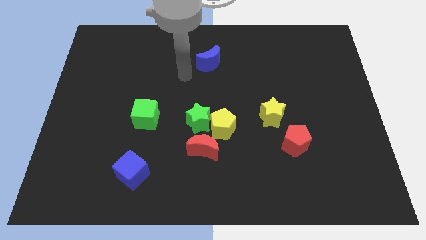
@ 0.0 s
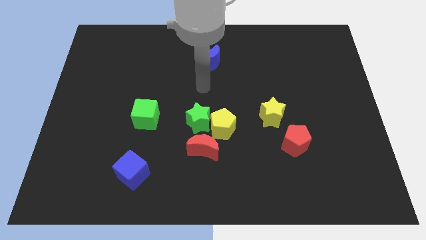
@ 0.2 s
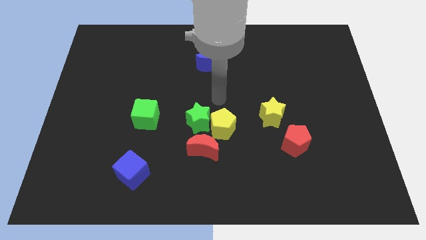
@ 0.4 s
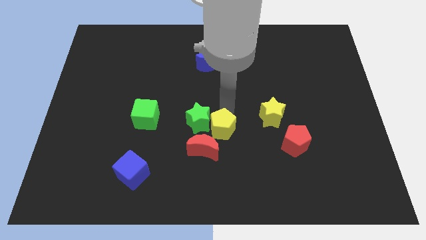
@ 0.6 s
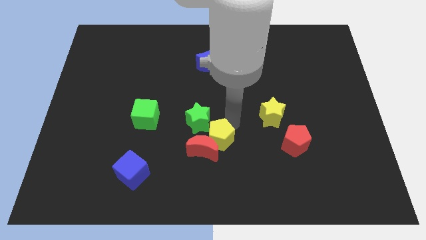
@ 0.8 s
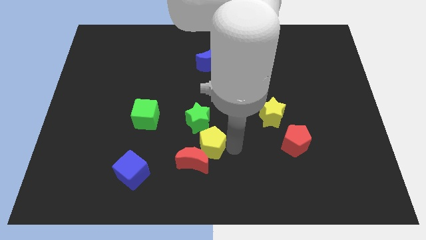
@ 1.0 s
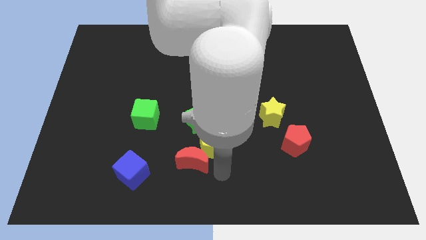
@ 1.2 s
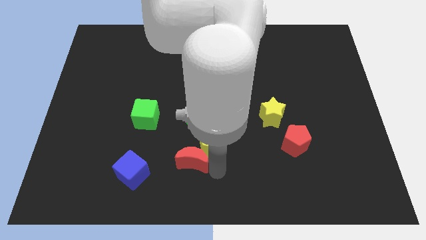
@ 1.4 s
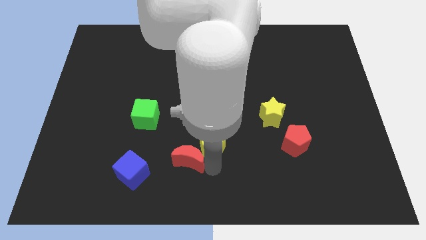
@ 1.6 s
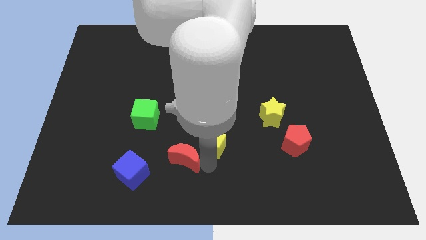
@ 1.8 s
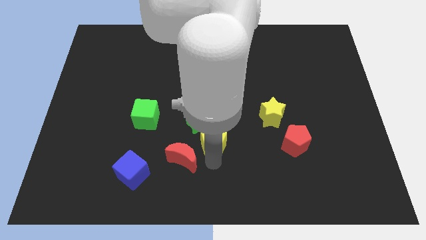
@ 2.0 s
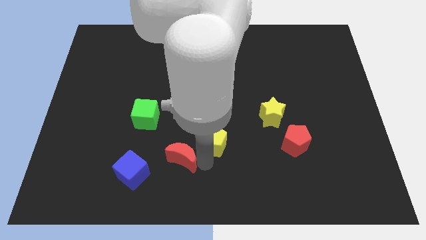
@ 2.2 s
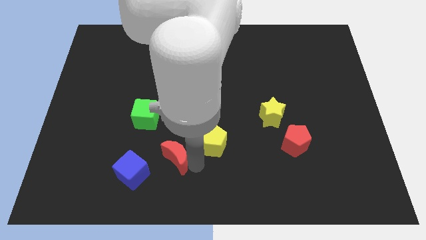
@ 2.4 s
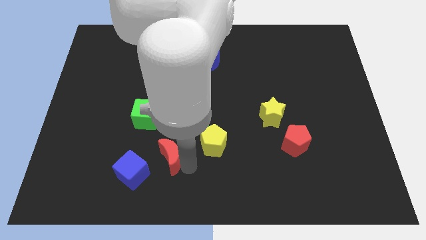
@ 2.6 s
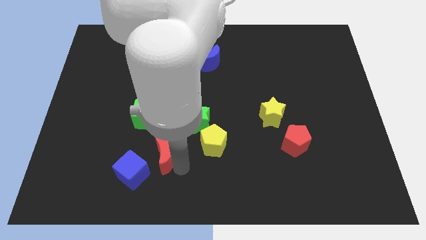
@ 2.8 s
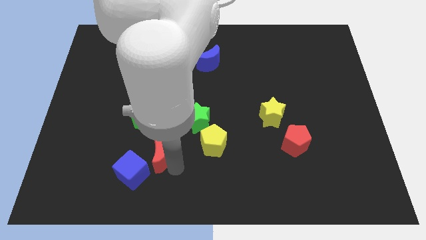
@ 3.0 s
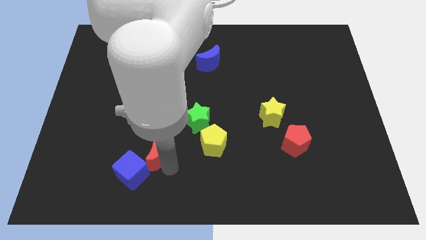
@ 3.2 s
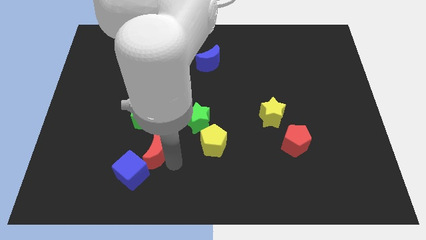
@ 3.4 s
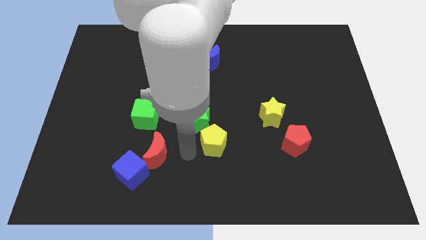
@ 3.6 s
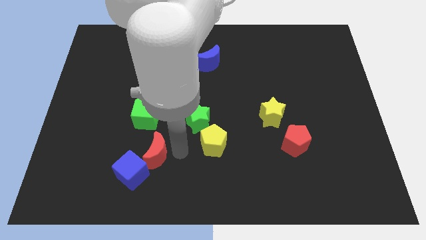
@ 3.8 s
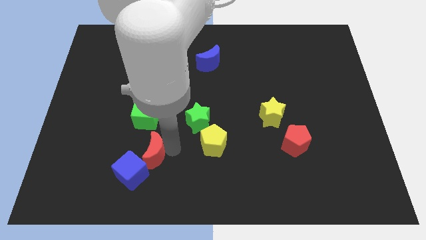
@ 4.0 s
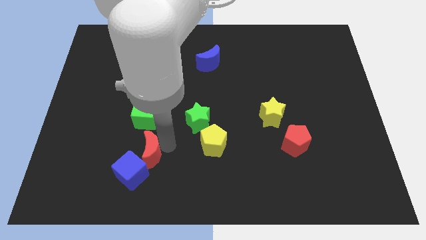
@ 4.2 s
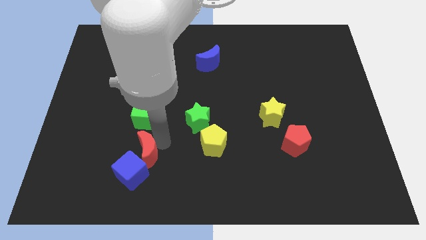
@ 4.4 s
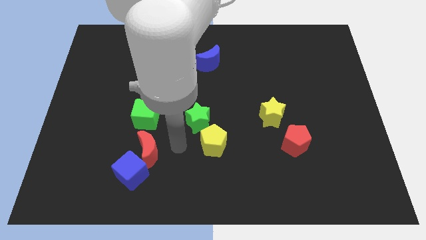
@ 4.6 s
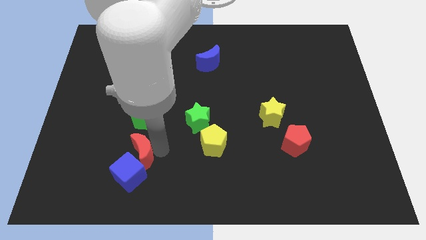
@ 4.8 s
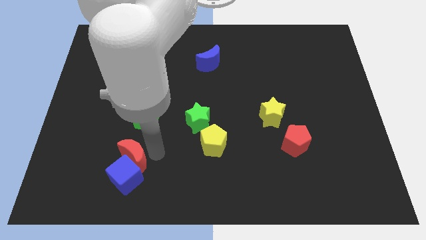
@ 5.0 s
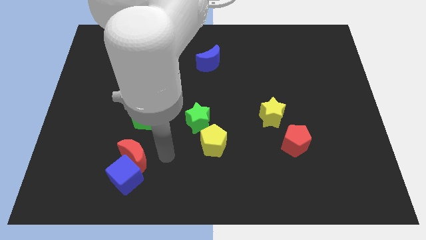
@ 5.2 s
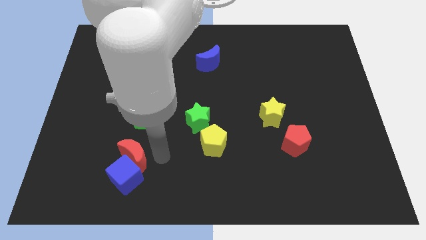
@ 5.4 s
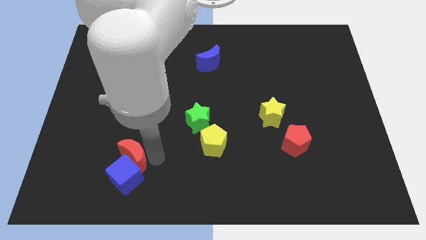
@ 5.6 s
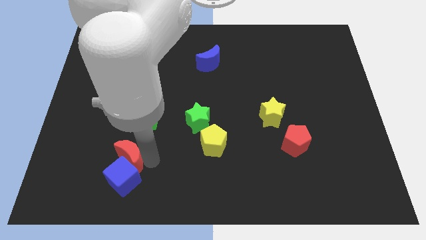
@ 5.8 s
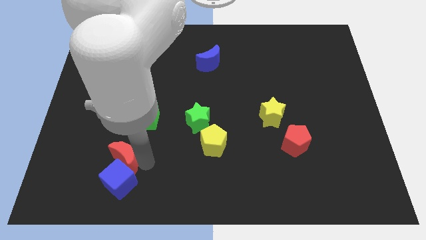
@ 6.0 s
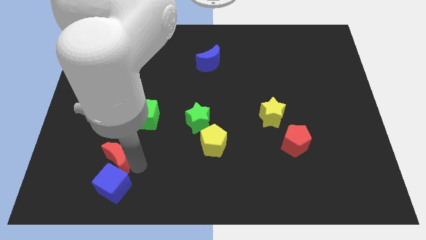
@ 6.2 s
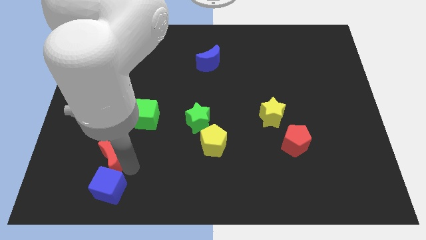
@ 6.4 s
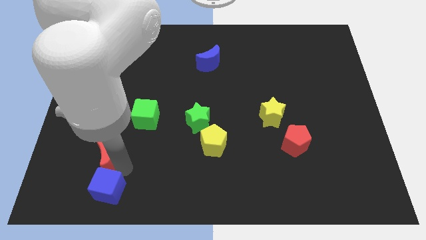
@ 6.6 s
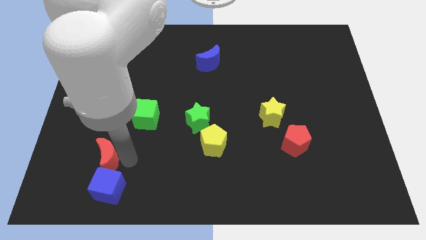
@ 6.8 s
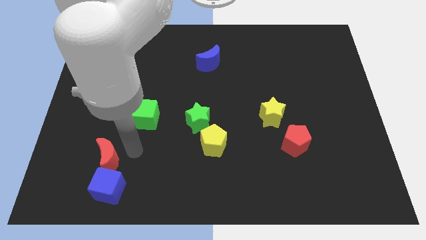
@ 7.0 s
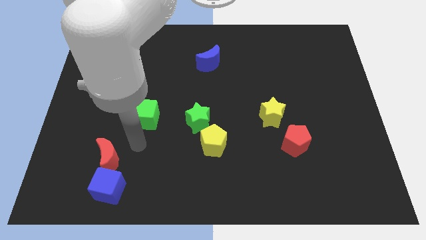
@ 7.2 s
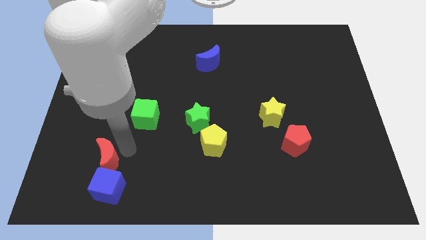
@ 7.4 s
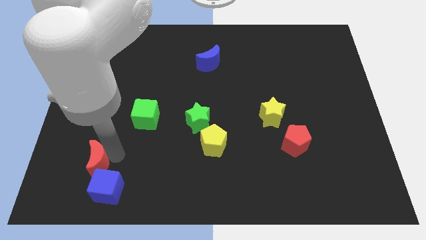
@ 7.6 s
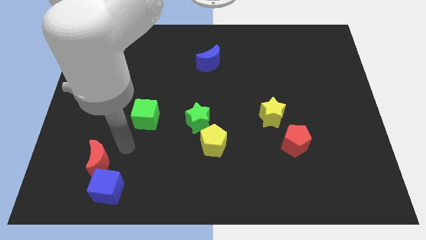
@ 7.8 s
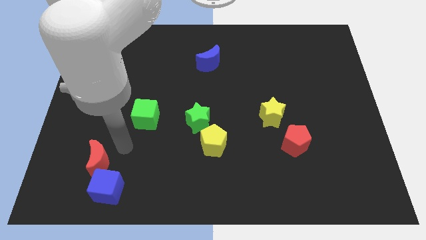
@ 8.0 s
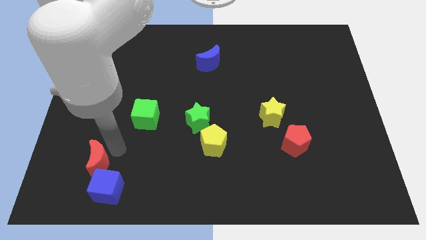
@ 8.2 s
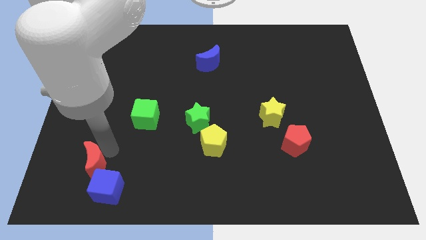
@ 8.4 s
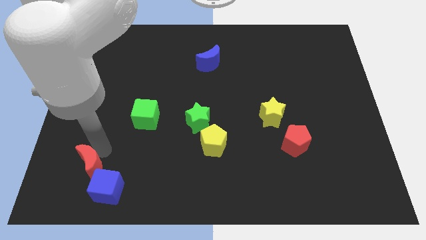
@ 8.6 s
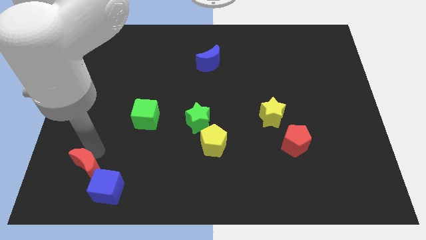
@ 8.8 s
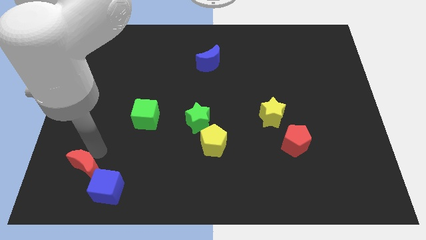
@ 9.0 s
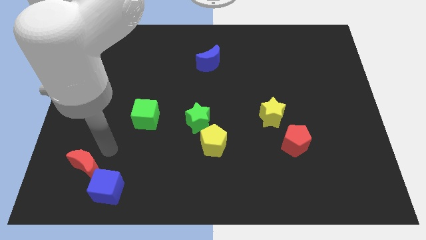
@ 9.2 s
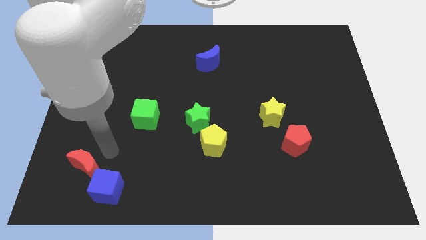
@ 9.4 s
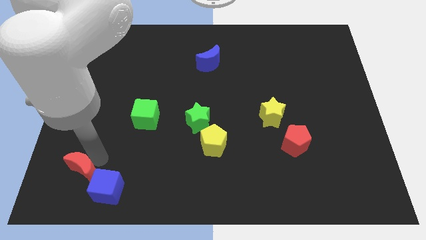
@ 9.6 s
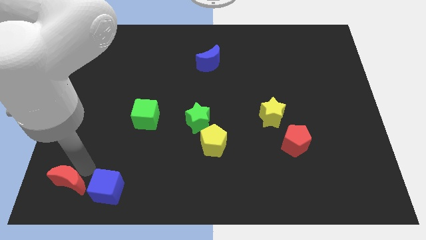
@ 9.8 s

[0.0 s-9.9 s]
slide the red moon to the bottom left of the board

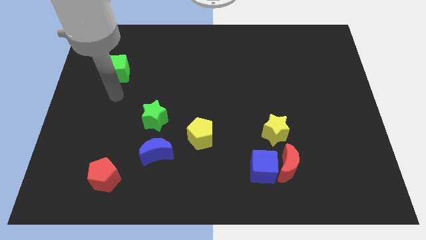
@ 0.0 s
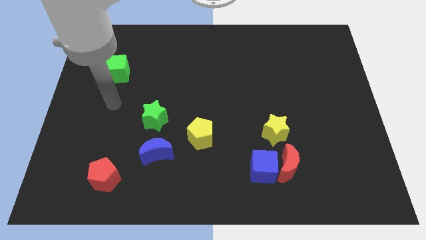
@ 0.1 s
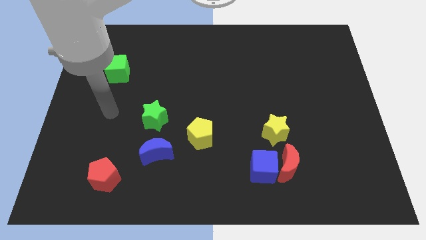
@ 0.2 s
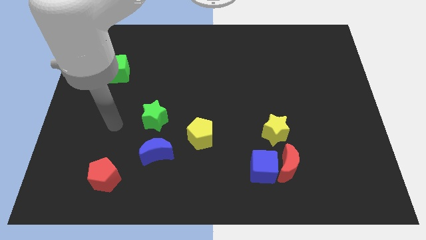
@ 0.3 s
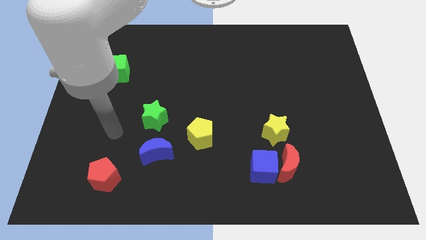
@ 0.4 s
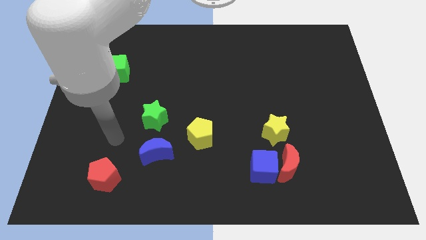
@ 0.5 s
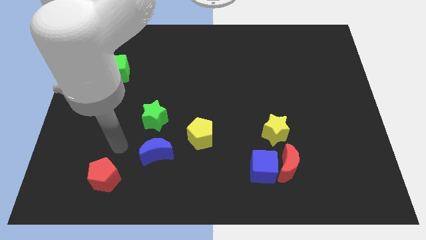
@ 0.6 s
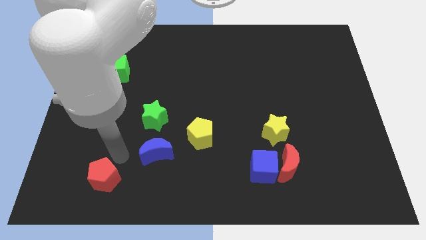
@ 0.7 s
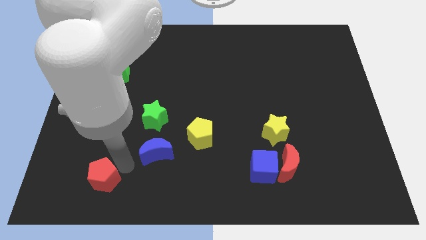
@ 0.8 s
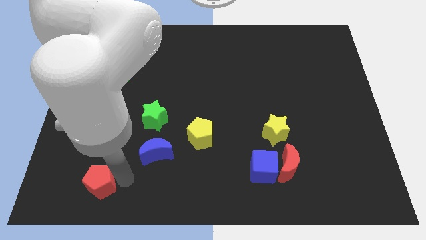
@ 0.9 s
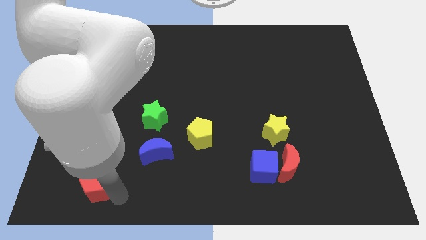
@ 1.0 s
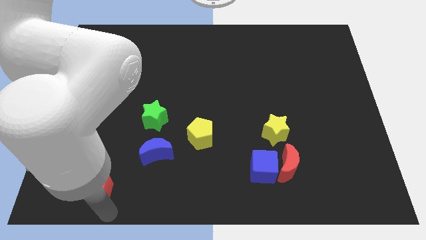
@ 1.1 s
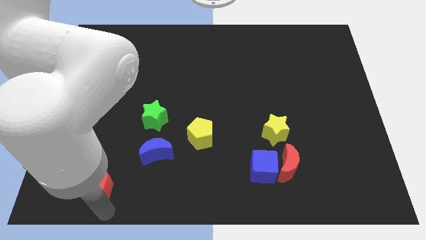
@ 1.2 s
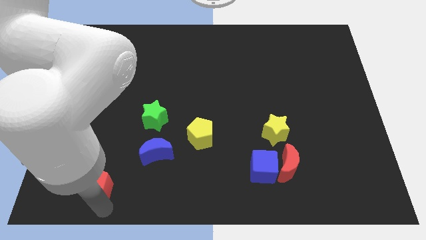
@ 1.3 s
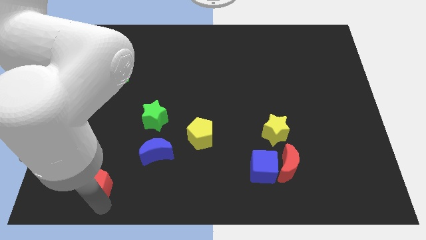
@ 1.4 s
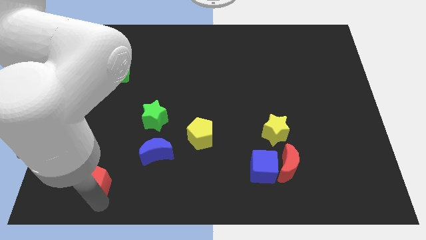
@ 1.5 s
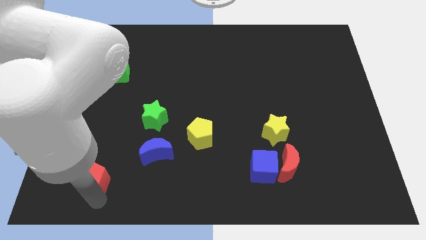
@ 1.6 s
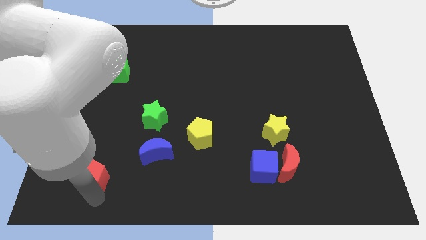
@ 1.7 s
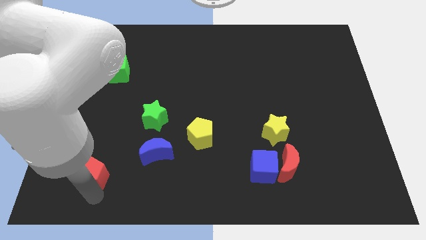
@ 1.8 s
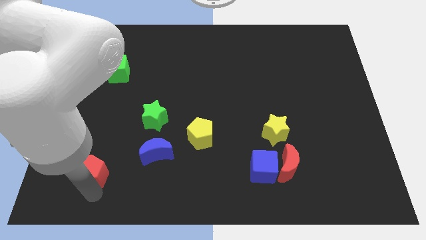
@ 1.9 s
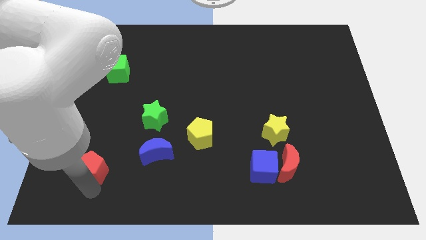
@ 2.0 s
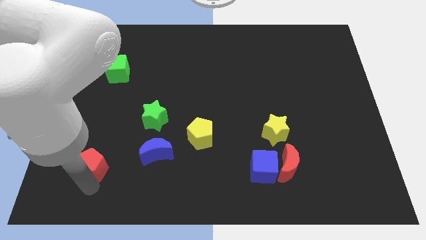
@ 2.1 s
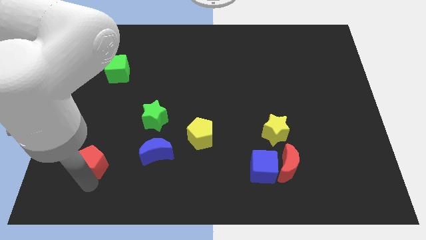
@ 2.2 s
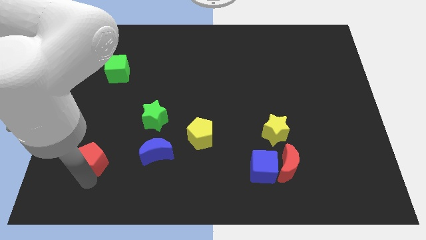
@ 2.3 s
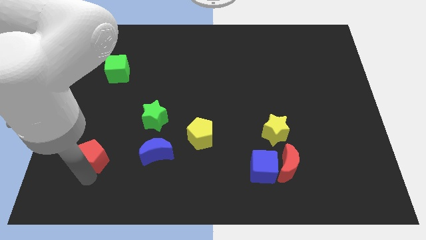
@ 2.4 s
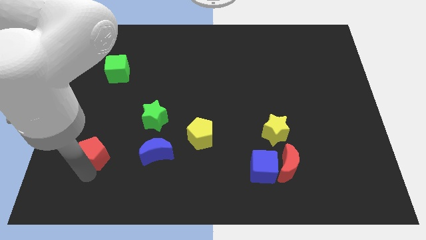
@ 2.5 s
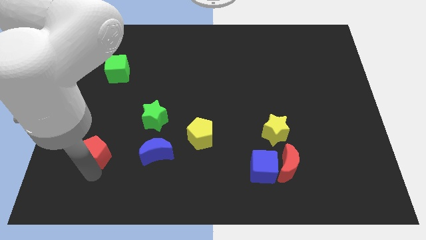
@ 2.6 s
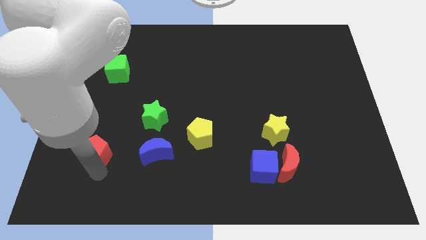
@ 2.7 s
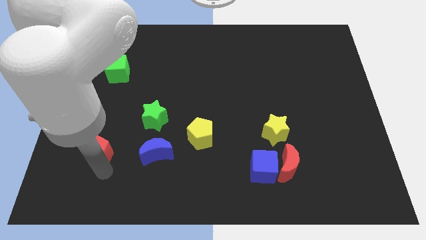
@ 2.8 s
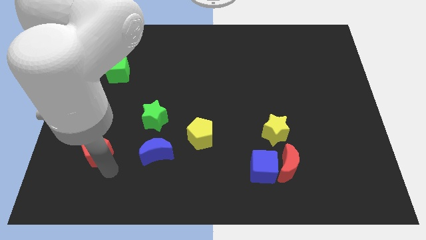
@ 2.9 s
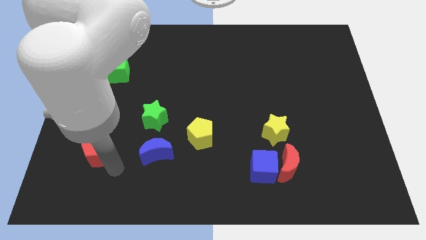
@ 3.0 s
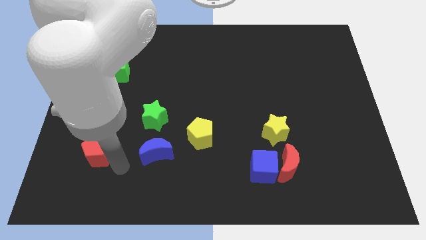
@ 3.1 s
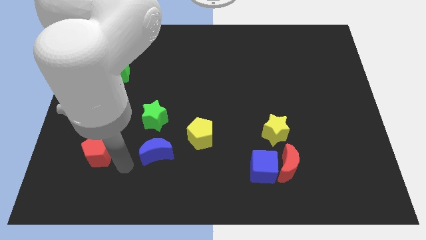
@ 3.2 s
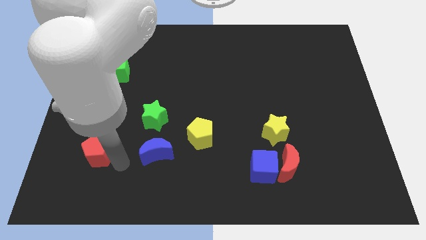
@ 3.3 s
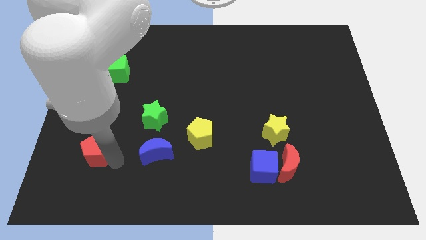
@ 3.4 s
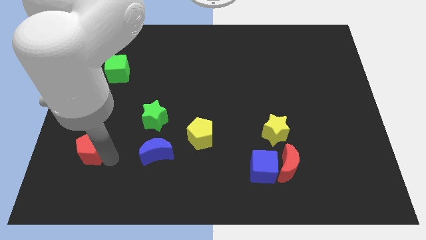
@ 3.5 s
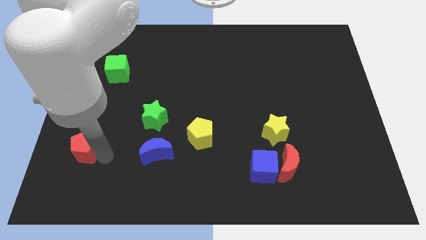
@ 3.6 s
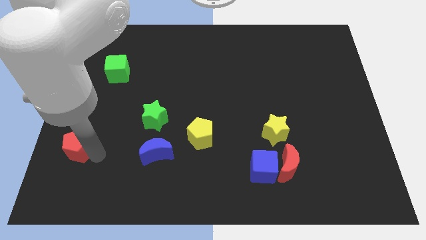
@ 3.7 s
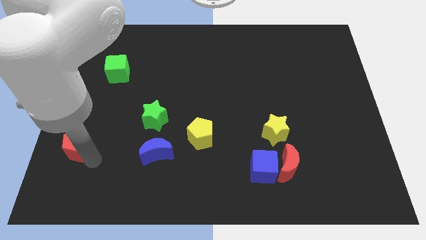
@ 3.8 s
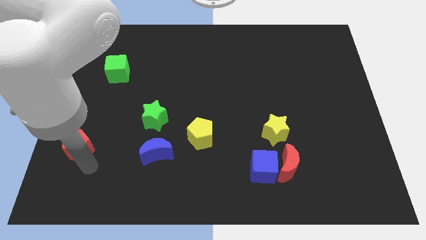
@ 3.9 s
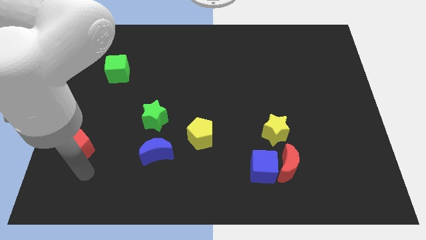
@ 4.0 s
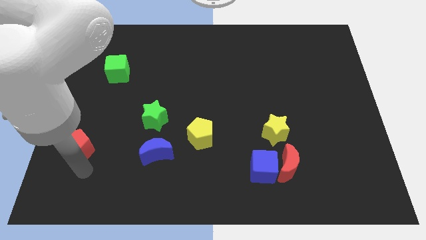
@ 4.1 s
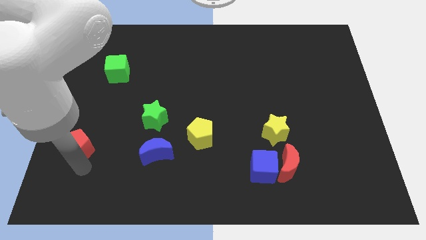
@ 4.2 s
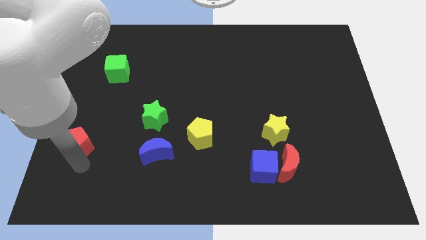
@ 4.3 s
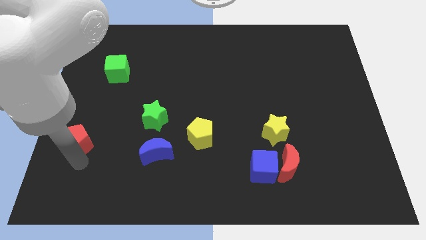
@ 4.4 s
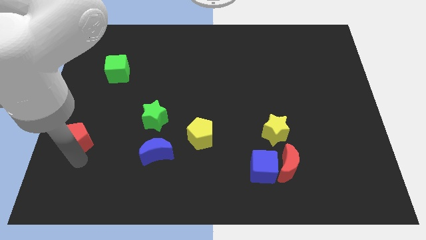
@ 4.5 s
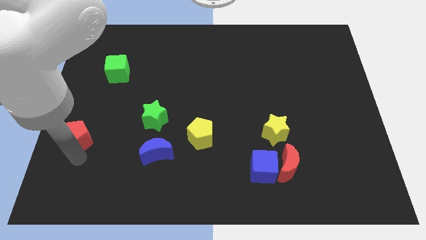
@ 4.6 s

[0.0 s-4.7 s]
push the red pentagon to the left side
